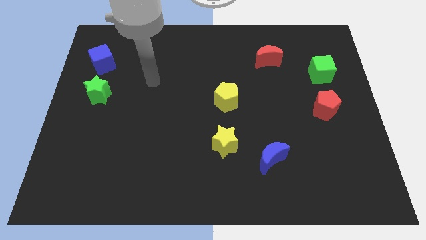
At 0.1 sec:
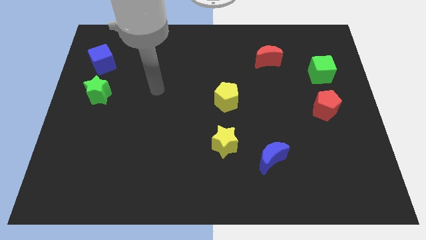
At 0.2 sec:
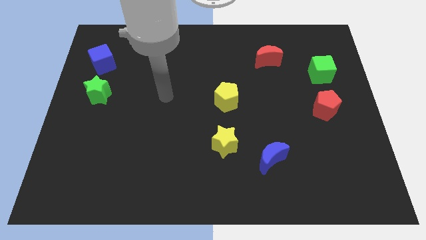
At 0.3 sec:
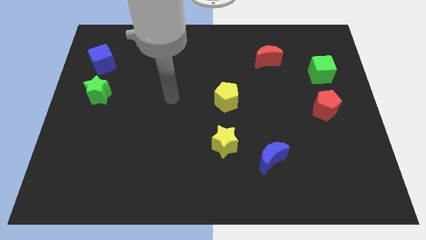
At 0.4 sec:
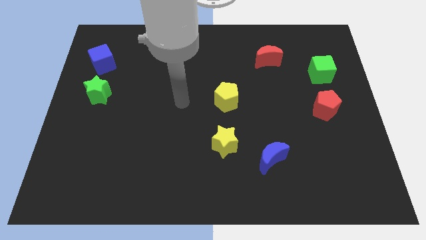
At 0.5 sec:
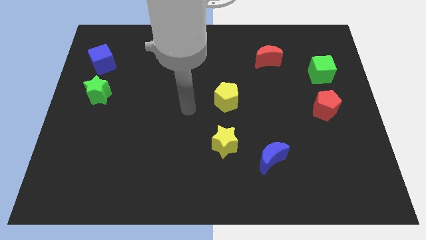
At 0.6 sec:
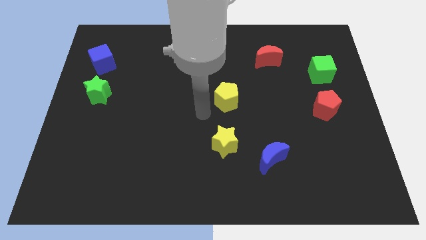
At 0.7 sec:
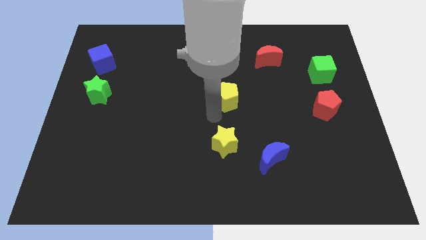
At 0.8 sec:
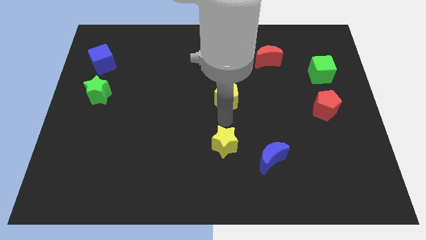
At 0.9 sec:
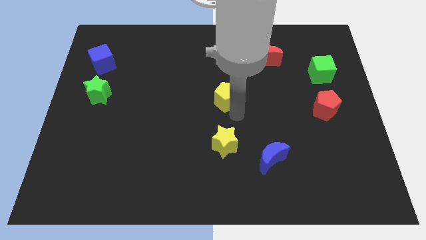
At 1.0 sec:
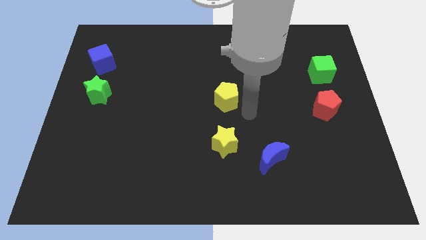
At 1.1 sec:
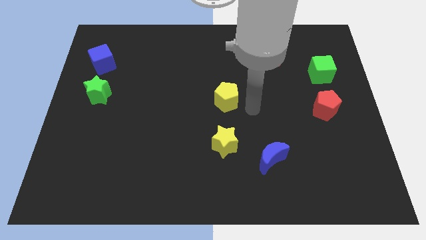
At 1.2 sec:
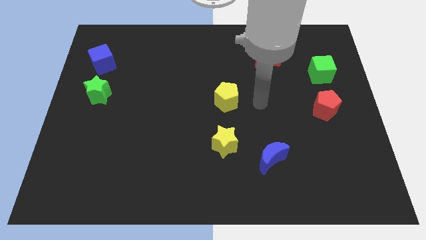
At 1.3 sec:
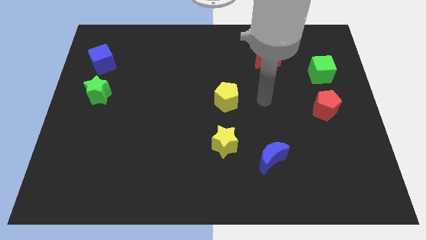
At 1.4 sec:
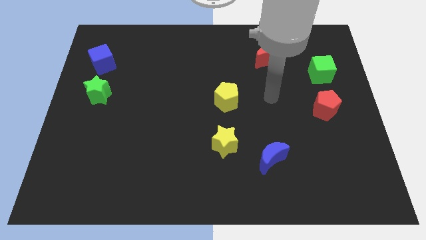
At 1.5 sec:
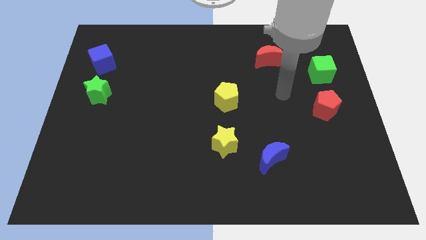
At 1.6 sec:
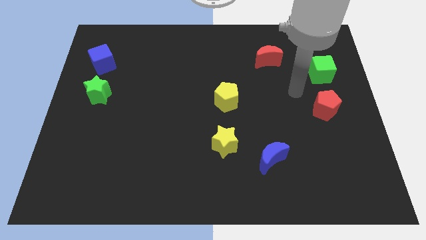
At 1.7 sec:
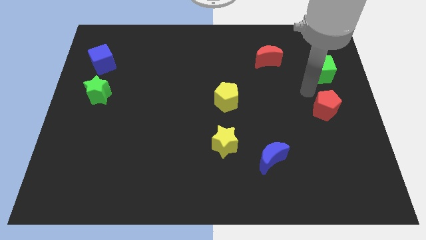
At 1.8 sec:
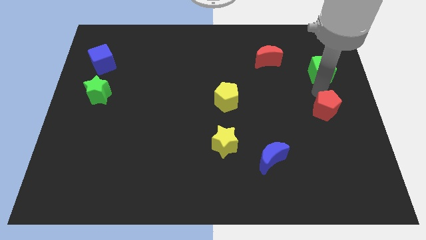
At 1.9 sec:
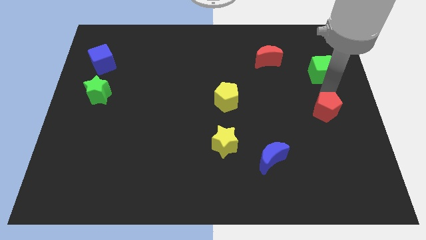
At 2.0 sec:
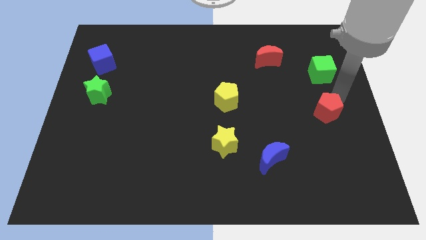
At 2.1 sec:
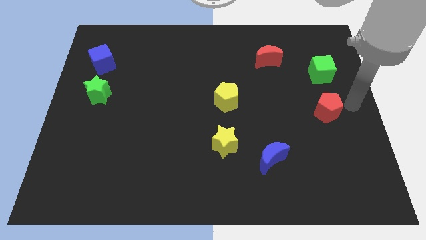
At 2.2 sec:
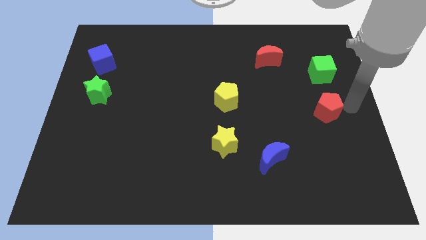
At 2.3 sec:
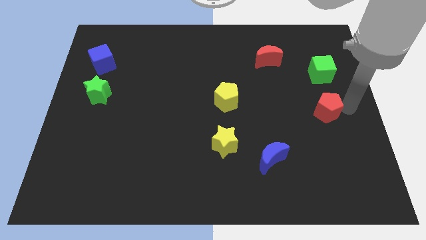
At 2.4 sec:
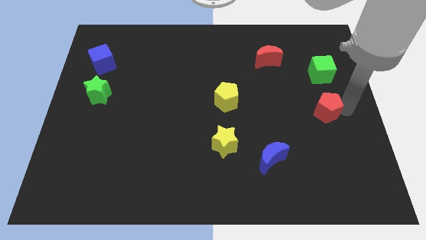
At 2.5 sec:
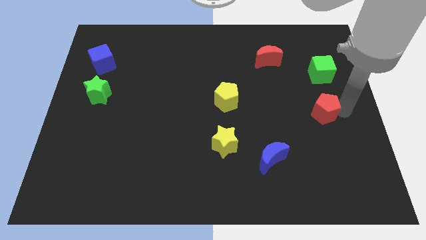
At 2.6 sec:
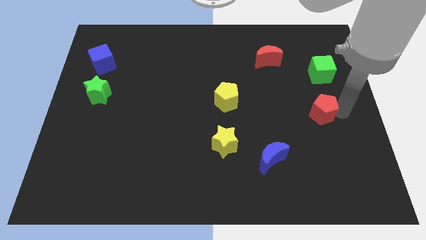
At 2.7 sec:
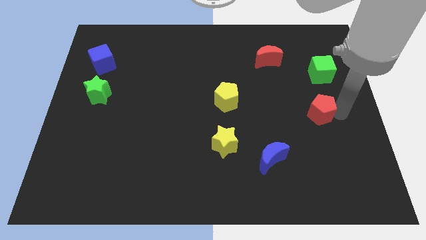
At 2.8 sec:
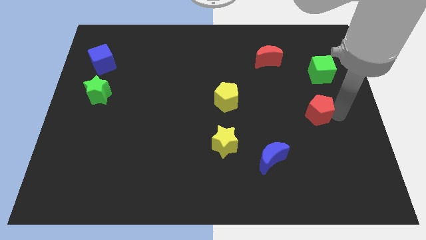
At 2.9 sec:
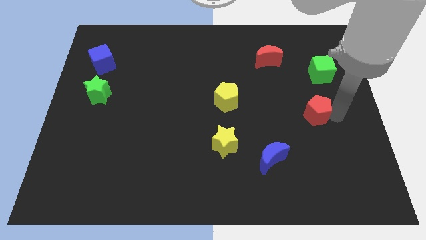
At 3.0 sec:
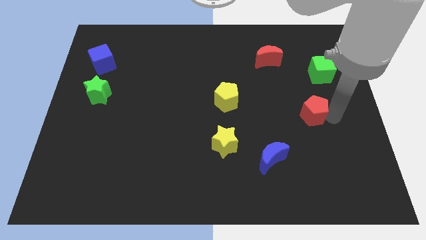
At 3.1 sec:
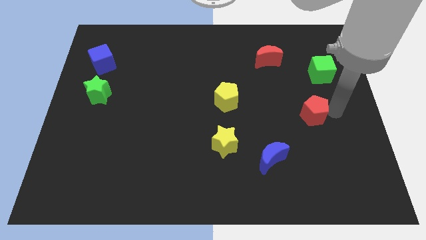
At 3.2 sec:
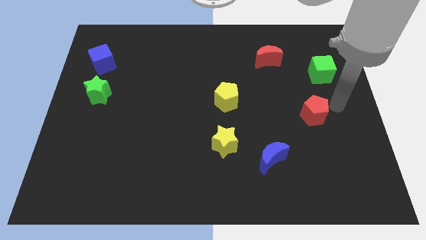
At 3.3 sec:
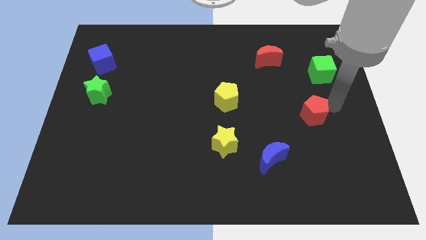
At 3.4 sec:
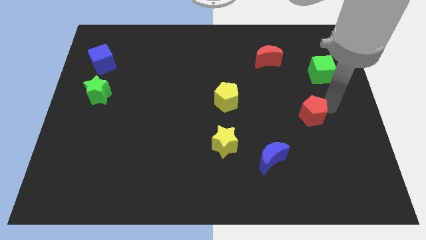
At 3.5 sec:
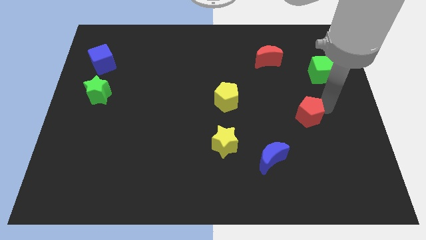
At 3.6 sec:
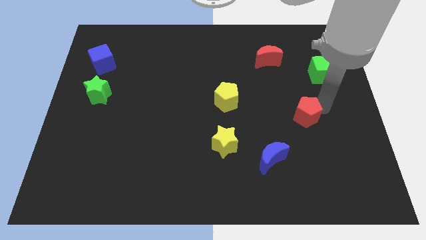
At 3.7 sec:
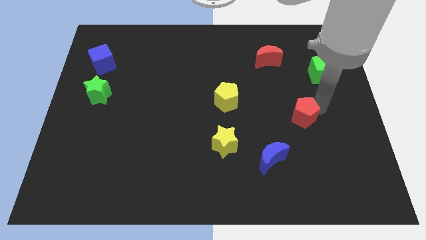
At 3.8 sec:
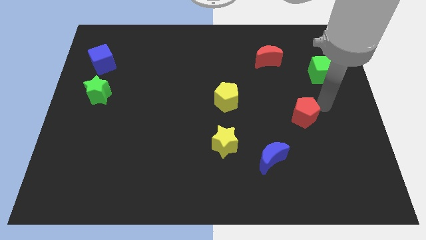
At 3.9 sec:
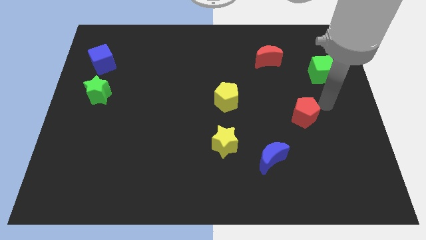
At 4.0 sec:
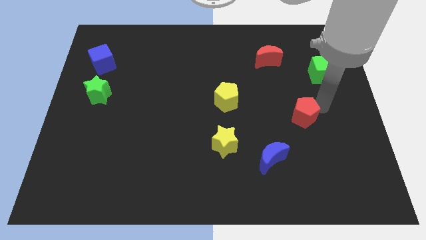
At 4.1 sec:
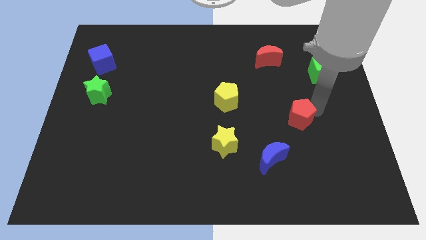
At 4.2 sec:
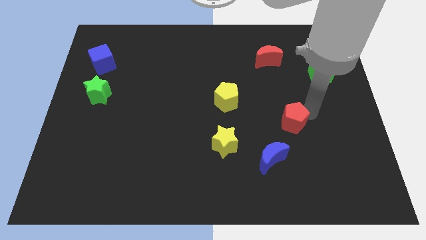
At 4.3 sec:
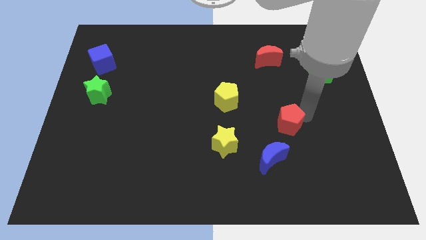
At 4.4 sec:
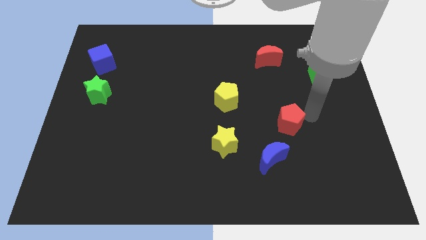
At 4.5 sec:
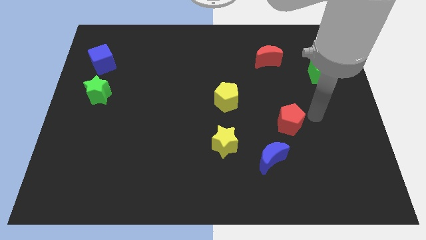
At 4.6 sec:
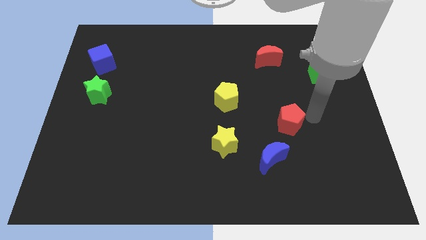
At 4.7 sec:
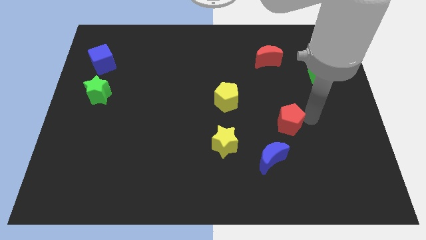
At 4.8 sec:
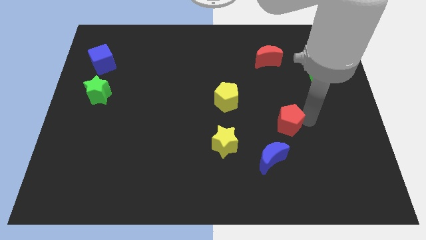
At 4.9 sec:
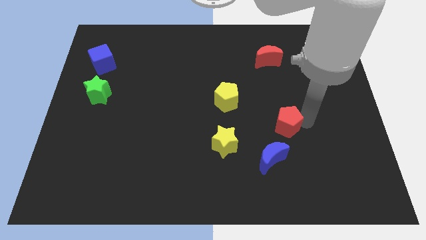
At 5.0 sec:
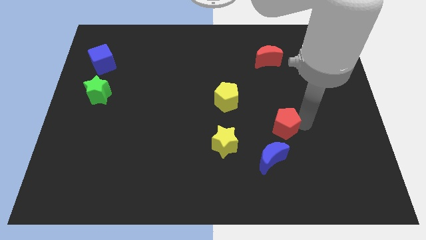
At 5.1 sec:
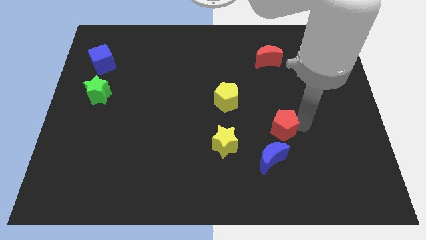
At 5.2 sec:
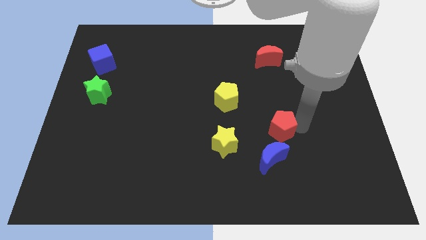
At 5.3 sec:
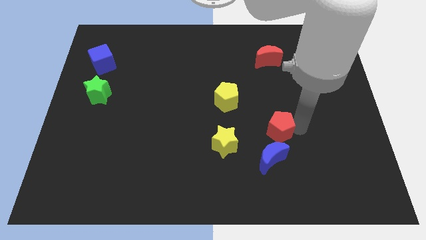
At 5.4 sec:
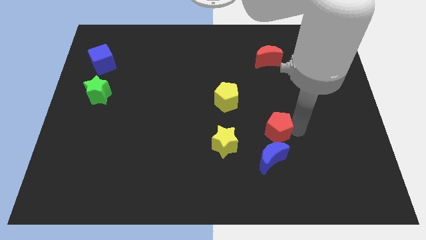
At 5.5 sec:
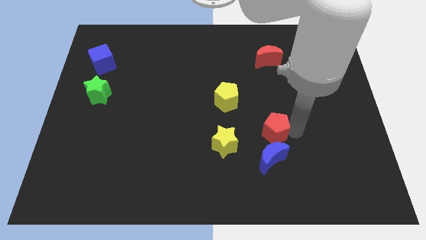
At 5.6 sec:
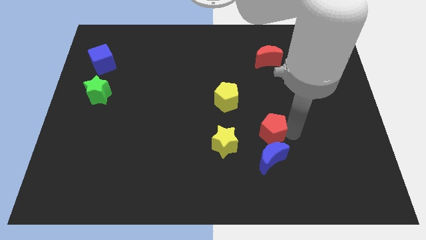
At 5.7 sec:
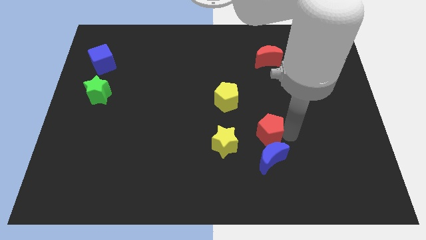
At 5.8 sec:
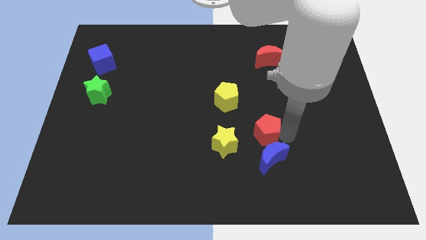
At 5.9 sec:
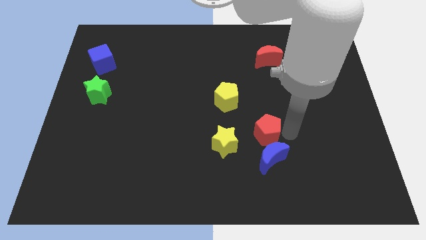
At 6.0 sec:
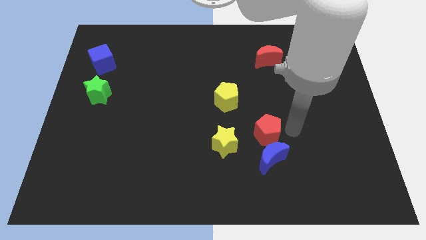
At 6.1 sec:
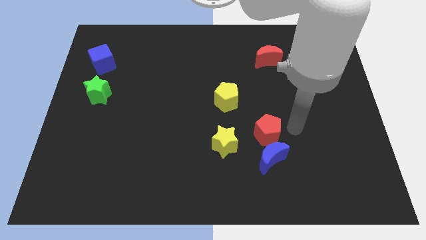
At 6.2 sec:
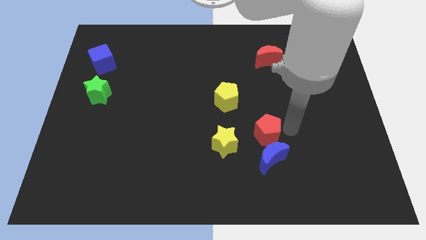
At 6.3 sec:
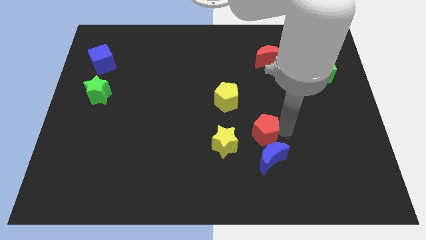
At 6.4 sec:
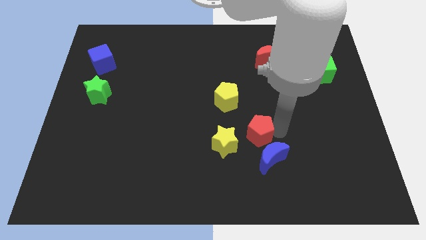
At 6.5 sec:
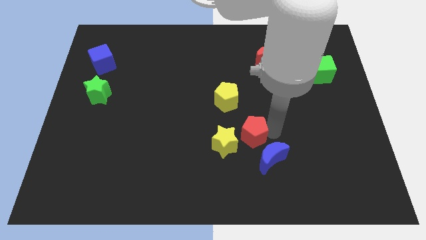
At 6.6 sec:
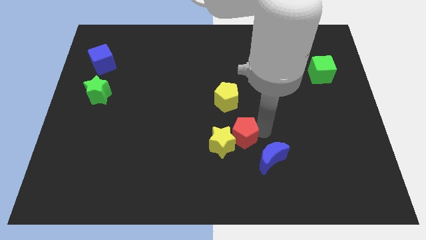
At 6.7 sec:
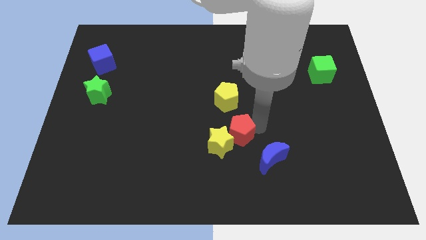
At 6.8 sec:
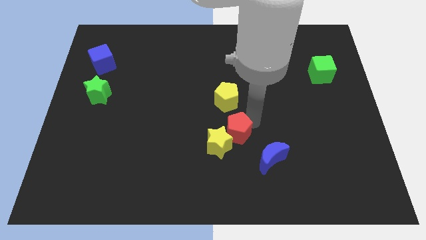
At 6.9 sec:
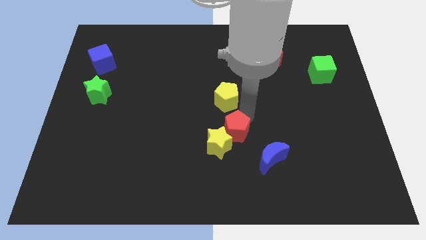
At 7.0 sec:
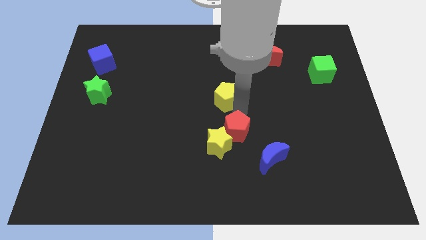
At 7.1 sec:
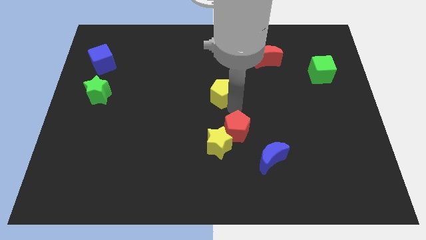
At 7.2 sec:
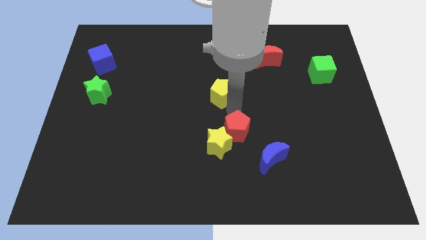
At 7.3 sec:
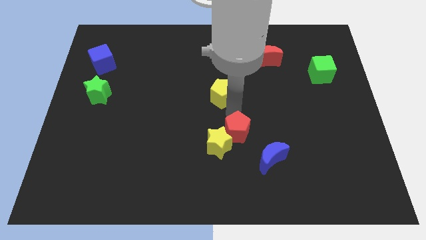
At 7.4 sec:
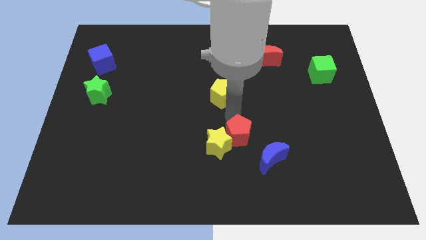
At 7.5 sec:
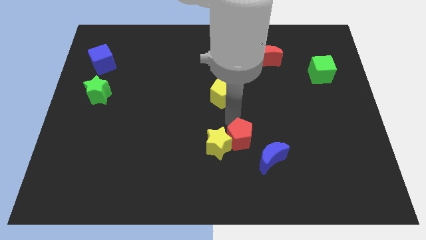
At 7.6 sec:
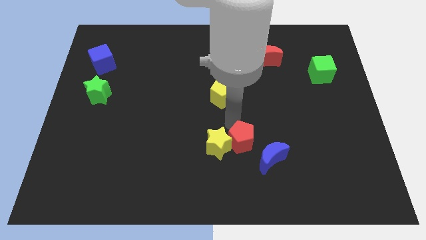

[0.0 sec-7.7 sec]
put the red pentagon to the bottom right of the yellow star
